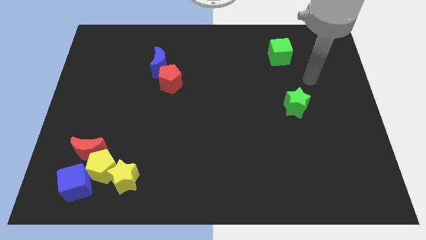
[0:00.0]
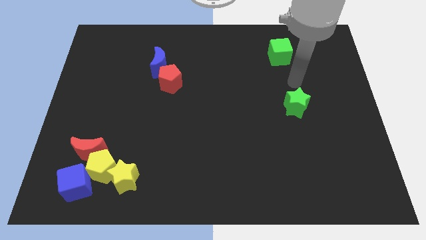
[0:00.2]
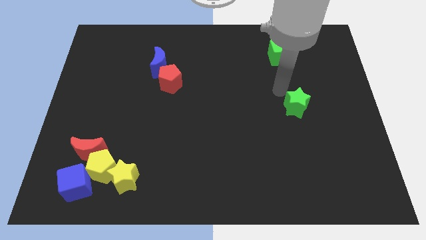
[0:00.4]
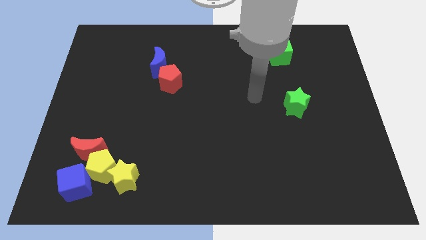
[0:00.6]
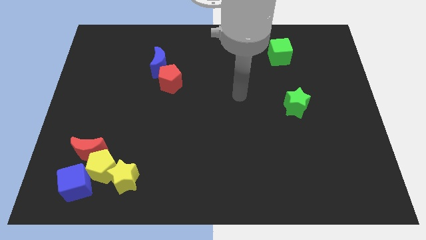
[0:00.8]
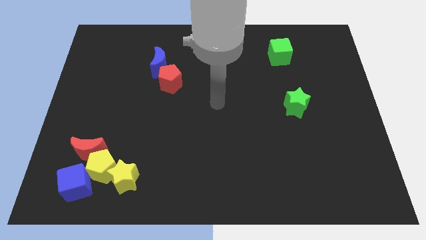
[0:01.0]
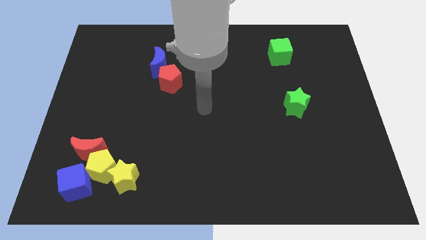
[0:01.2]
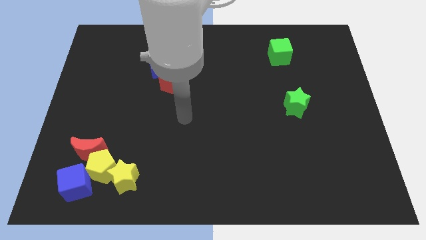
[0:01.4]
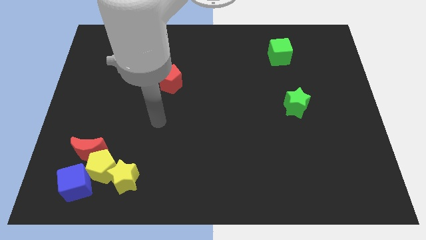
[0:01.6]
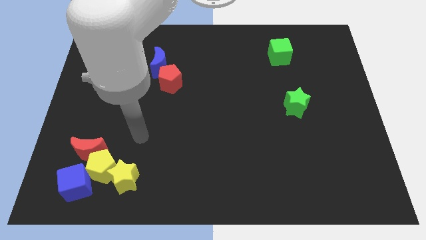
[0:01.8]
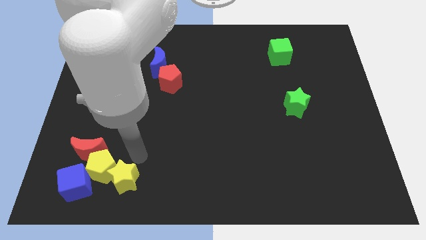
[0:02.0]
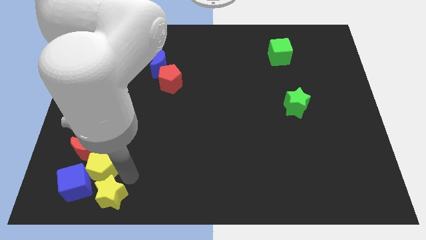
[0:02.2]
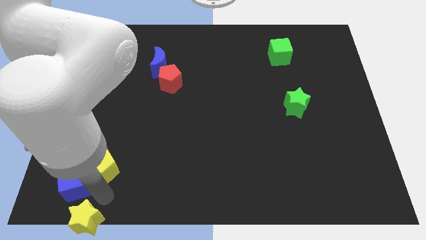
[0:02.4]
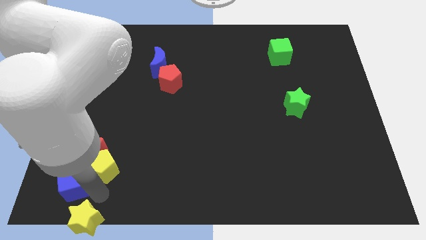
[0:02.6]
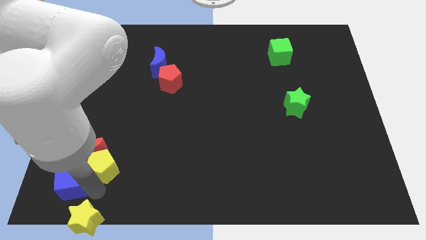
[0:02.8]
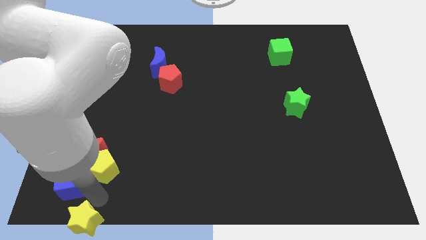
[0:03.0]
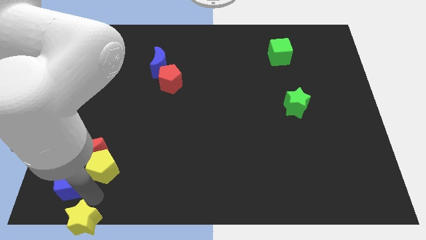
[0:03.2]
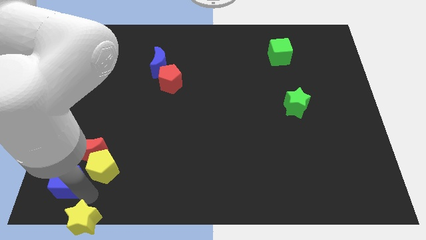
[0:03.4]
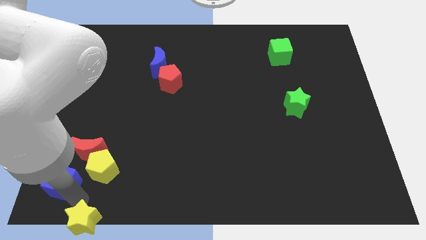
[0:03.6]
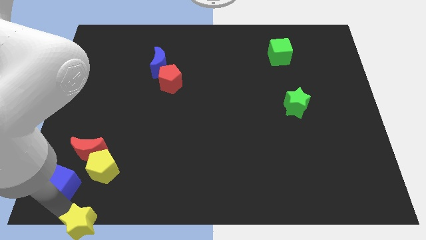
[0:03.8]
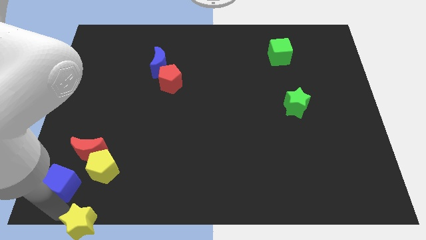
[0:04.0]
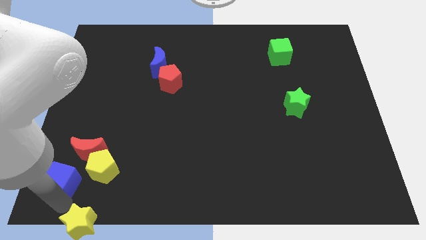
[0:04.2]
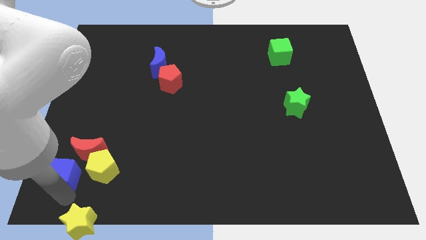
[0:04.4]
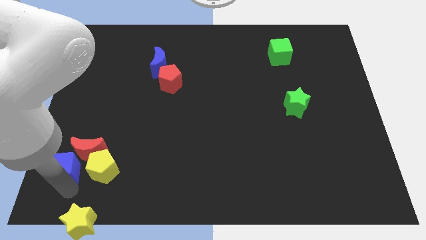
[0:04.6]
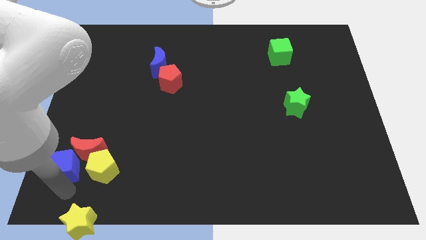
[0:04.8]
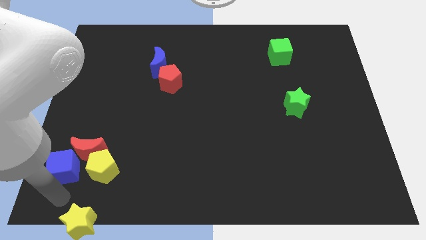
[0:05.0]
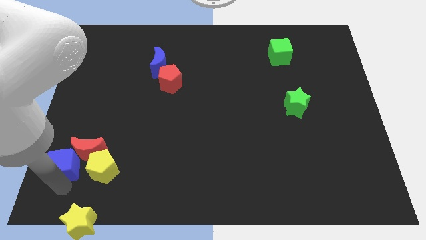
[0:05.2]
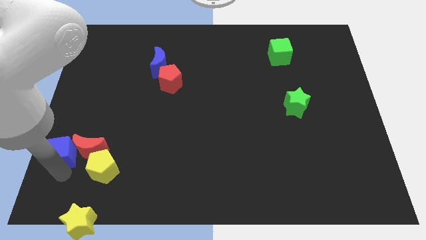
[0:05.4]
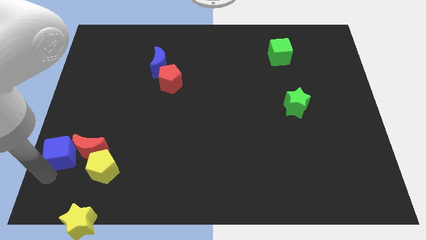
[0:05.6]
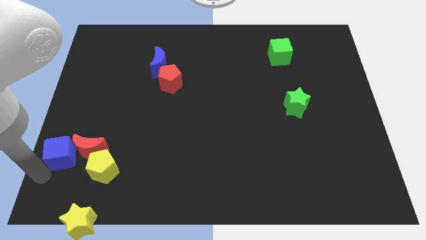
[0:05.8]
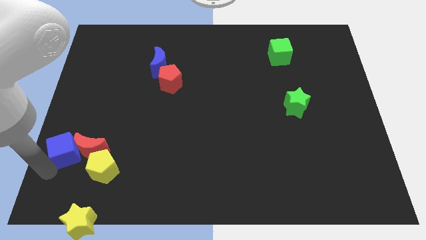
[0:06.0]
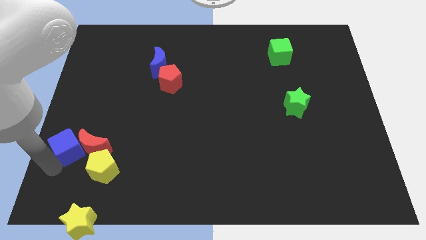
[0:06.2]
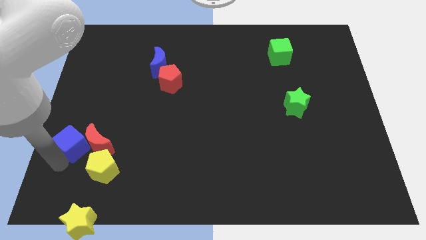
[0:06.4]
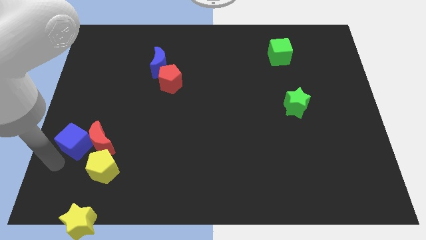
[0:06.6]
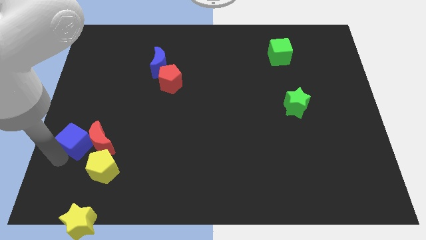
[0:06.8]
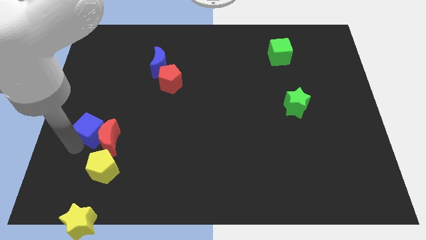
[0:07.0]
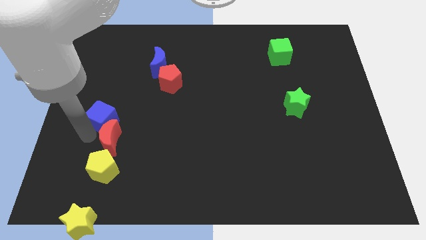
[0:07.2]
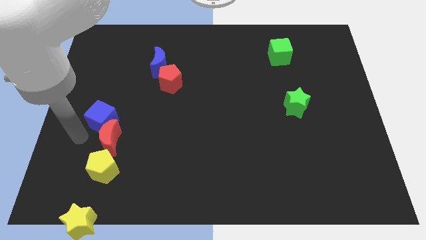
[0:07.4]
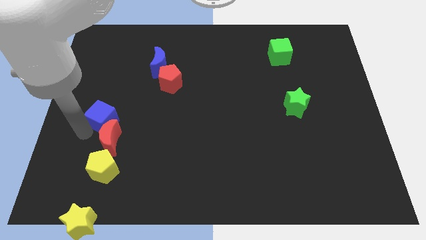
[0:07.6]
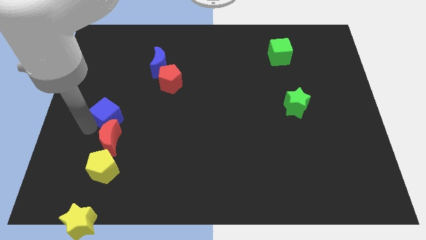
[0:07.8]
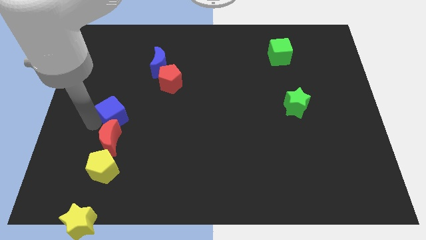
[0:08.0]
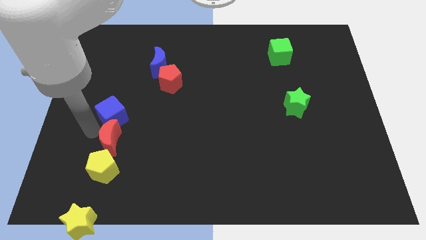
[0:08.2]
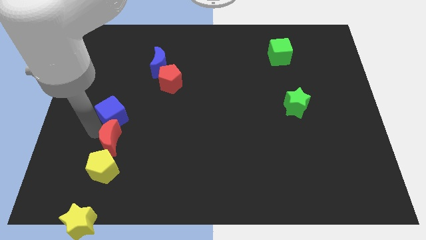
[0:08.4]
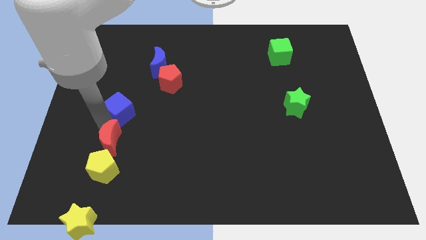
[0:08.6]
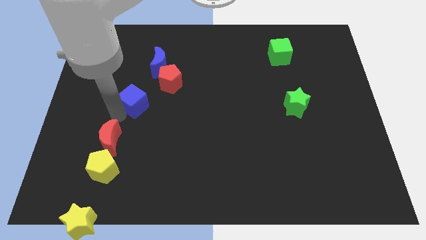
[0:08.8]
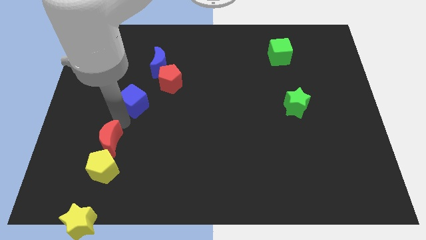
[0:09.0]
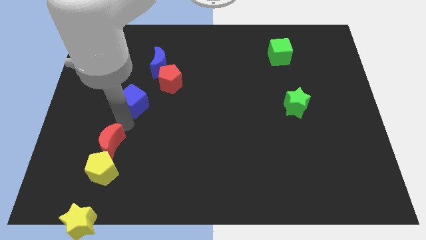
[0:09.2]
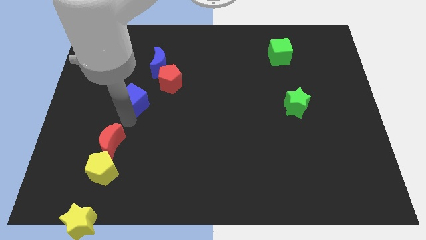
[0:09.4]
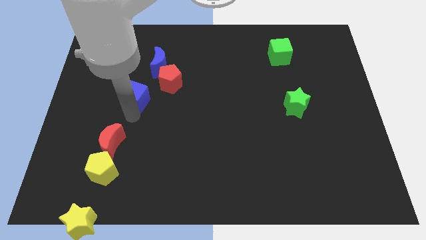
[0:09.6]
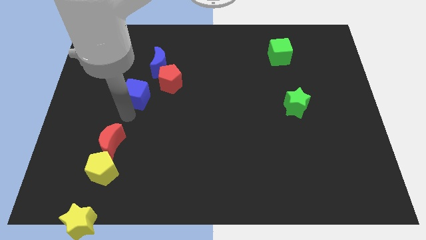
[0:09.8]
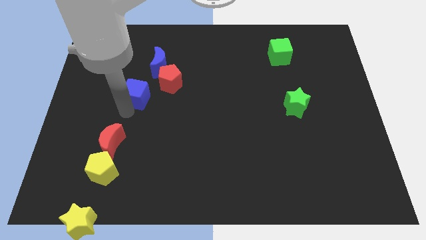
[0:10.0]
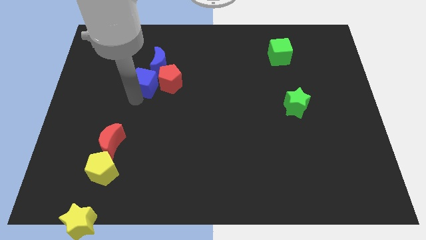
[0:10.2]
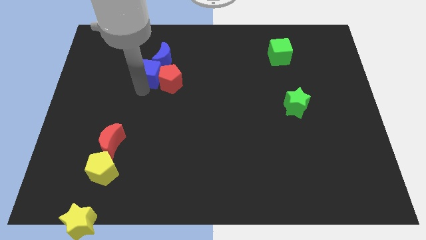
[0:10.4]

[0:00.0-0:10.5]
push the blue cube close to the blue moon

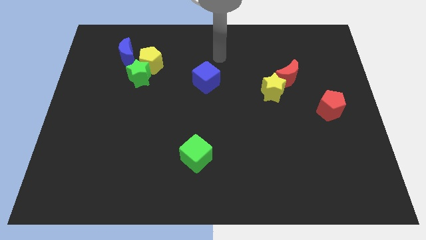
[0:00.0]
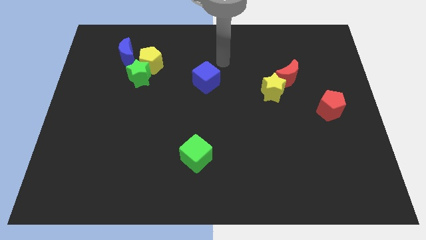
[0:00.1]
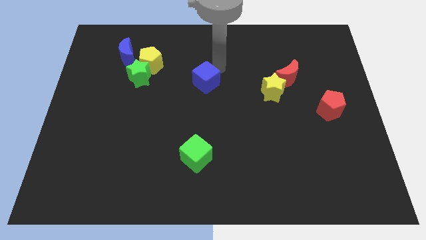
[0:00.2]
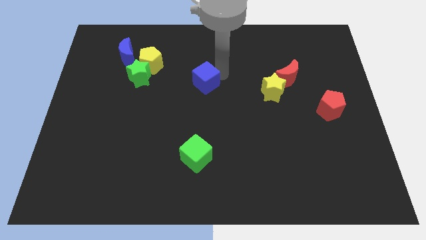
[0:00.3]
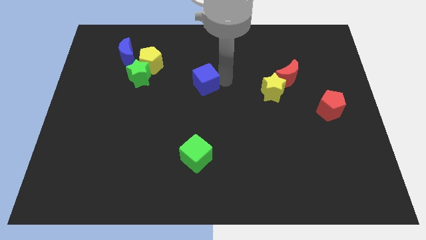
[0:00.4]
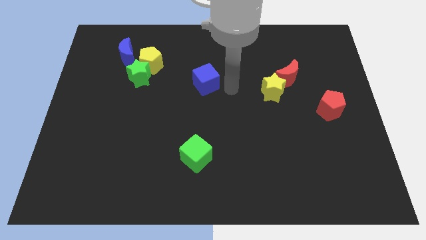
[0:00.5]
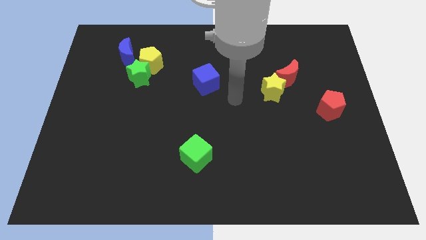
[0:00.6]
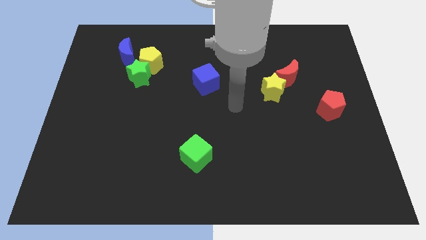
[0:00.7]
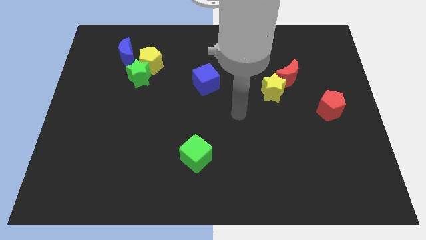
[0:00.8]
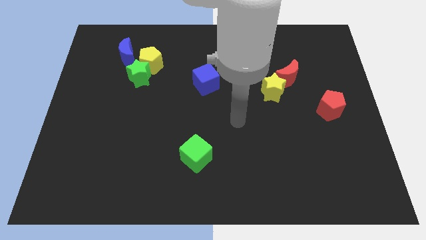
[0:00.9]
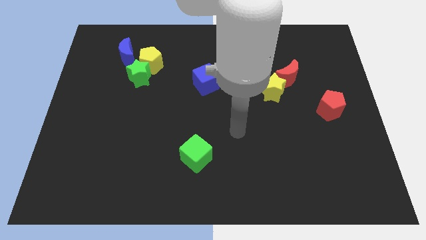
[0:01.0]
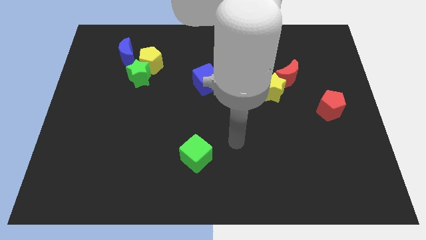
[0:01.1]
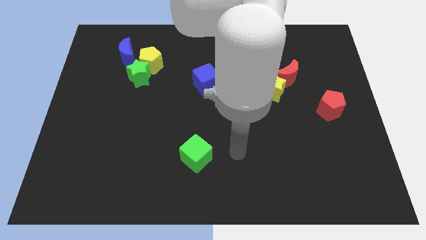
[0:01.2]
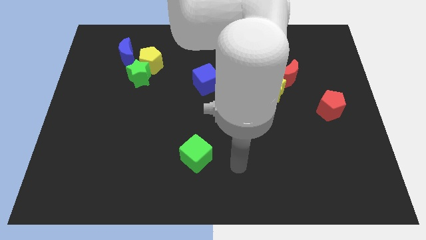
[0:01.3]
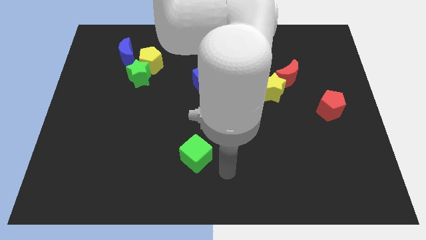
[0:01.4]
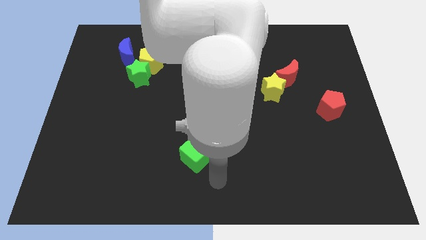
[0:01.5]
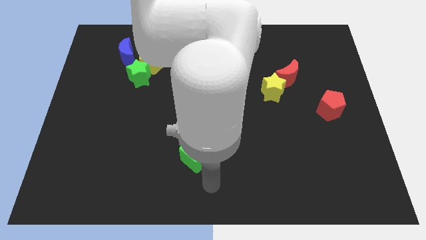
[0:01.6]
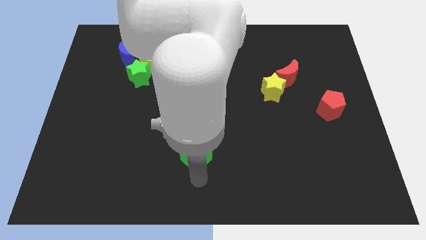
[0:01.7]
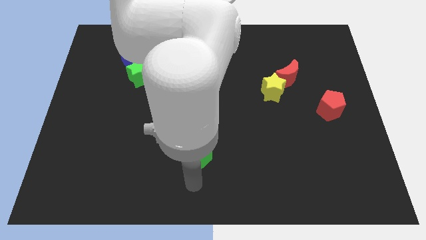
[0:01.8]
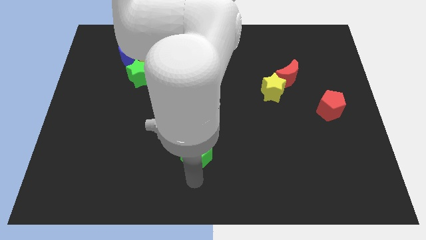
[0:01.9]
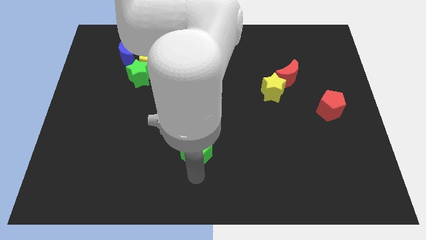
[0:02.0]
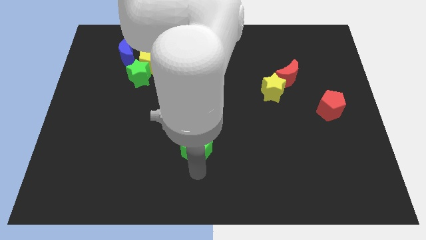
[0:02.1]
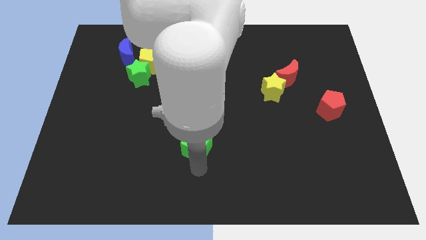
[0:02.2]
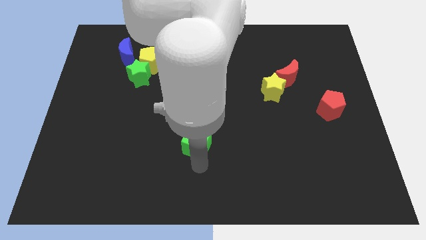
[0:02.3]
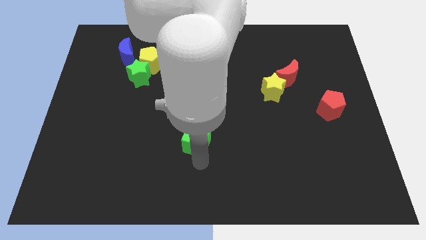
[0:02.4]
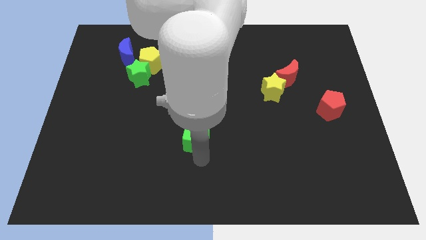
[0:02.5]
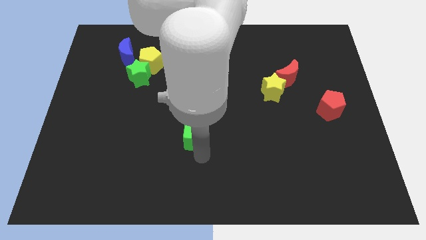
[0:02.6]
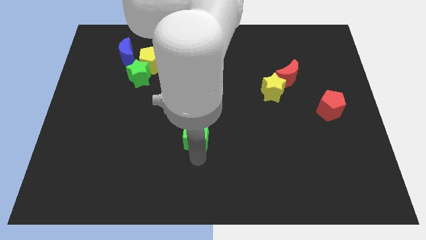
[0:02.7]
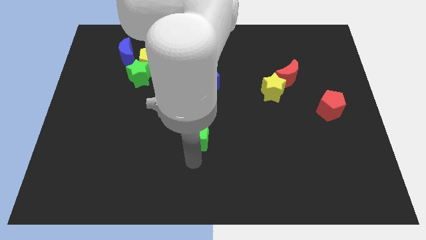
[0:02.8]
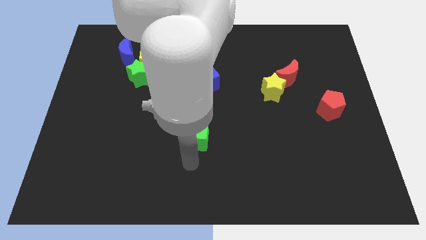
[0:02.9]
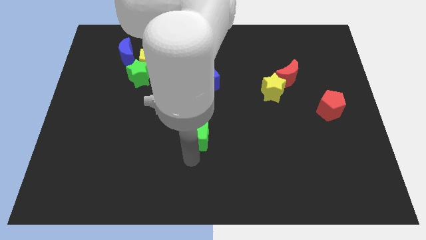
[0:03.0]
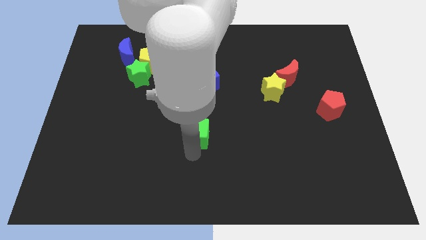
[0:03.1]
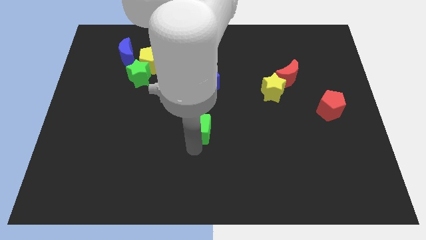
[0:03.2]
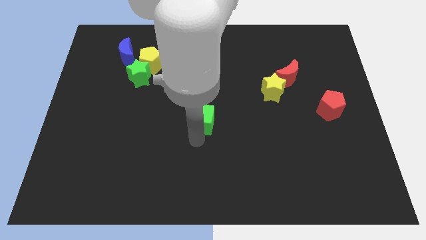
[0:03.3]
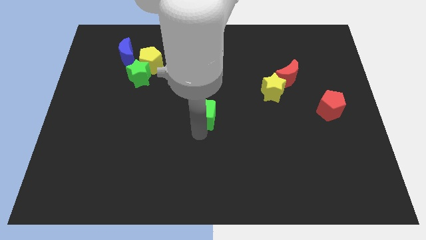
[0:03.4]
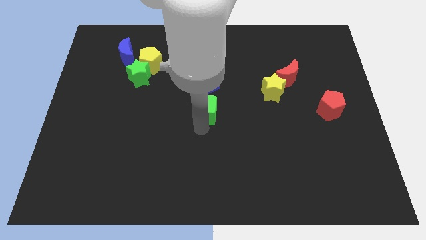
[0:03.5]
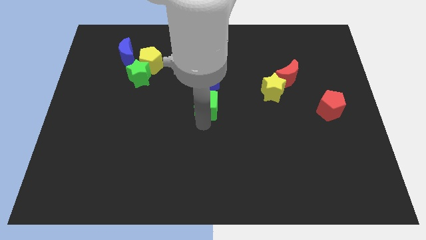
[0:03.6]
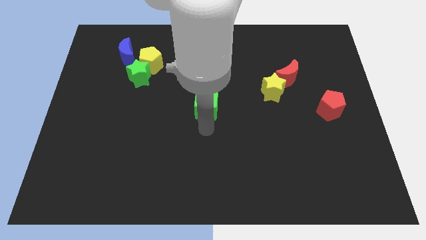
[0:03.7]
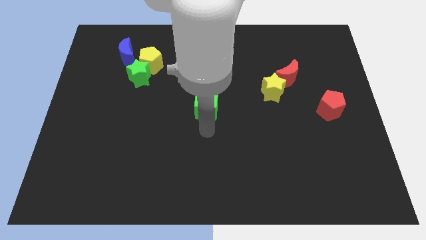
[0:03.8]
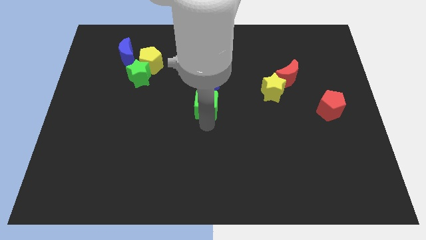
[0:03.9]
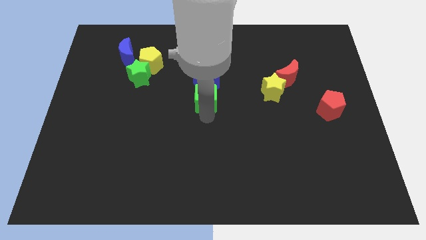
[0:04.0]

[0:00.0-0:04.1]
put the green cube towards the blue cube
